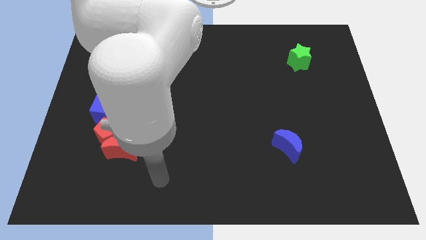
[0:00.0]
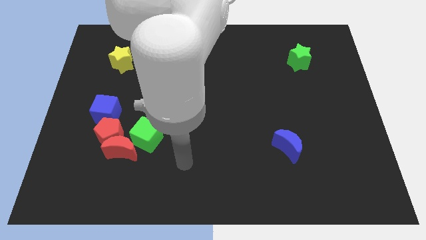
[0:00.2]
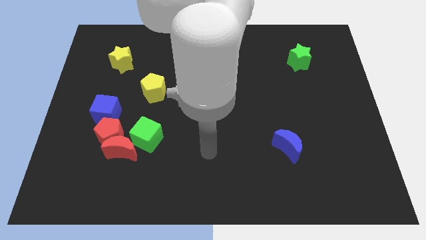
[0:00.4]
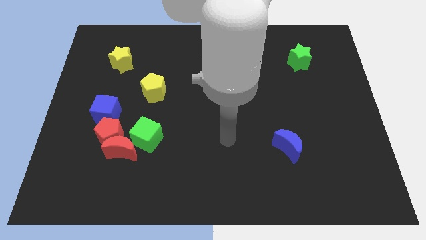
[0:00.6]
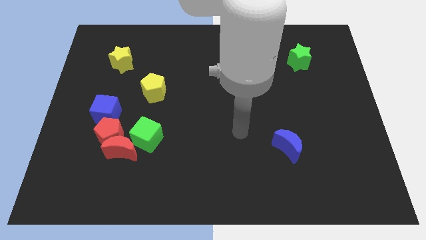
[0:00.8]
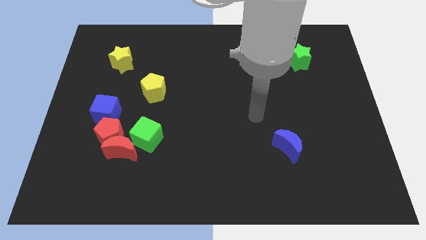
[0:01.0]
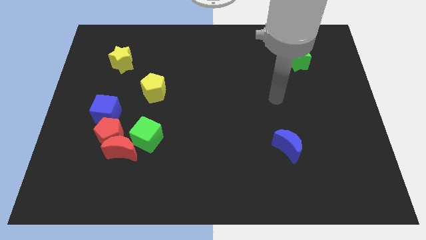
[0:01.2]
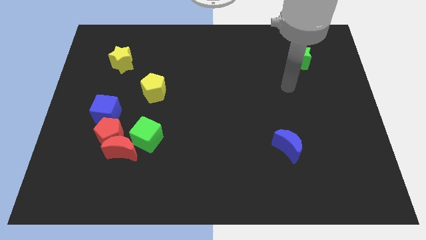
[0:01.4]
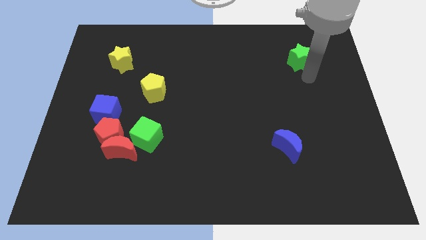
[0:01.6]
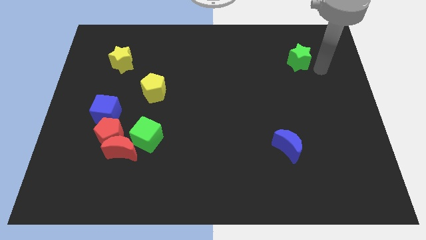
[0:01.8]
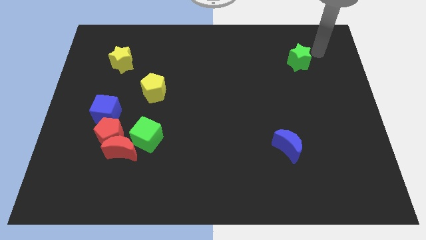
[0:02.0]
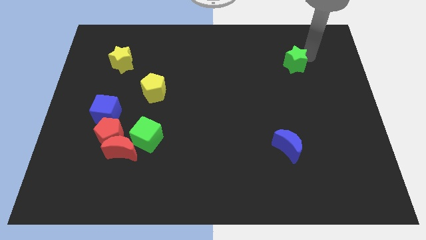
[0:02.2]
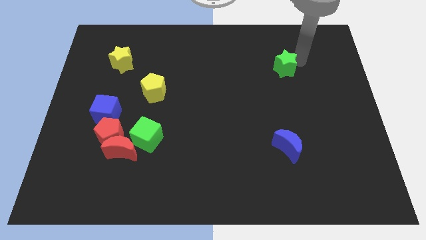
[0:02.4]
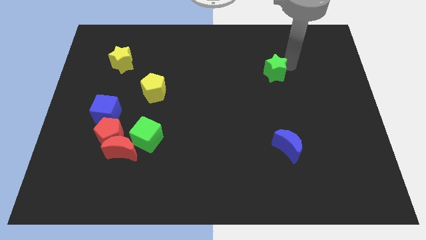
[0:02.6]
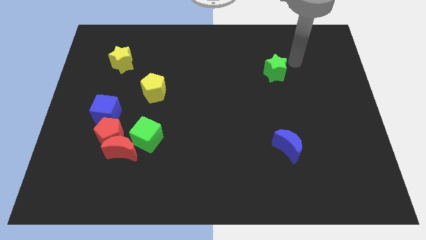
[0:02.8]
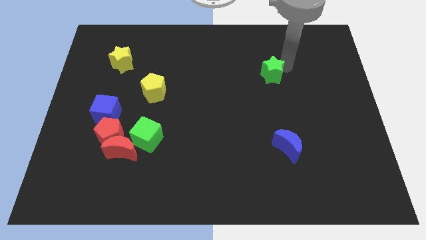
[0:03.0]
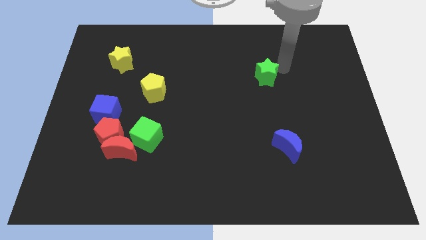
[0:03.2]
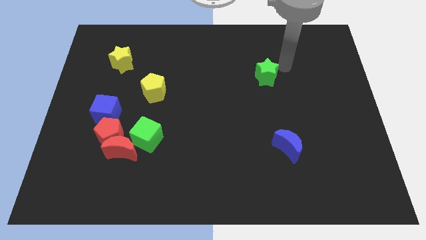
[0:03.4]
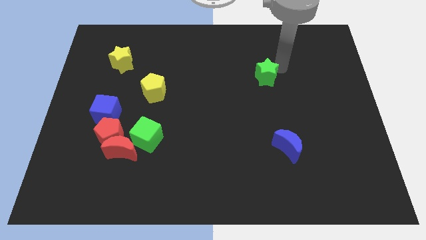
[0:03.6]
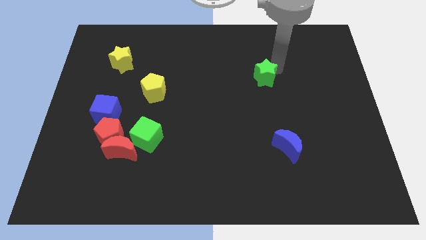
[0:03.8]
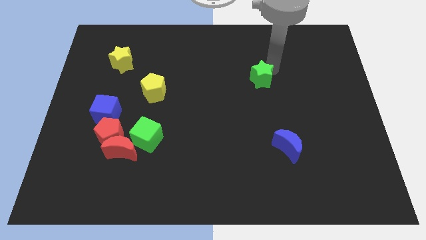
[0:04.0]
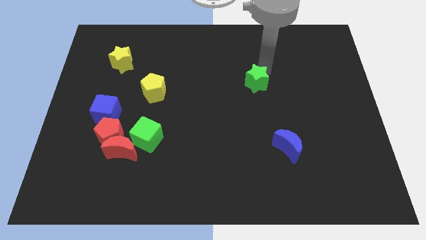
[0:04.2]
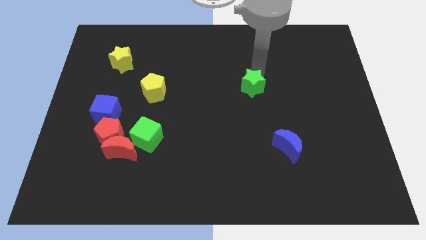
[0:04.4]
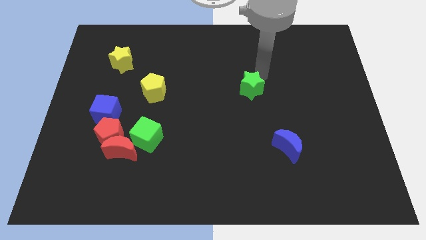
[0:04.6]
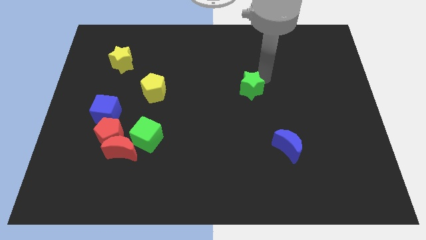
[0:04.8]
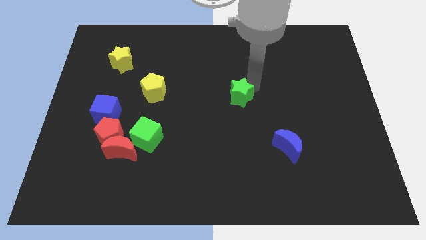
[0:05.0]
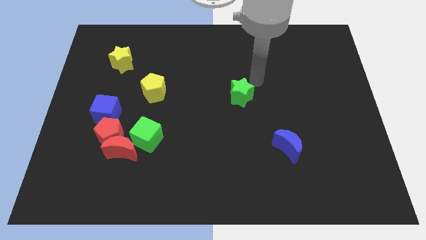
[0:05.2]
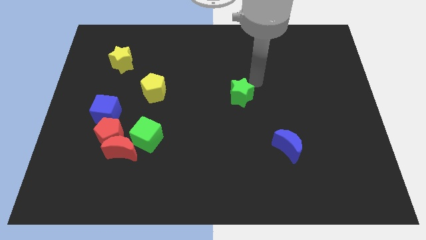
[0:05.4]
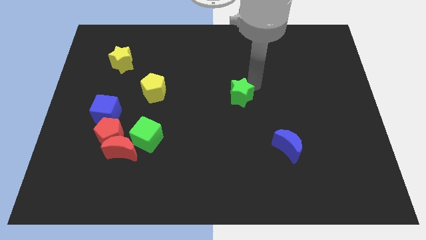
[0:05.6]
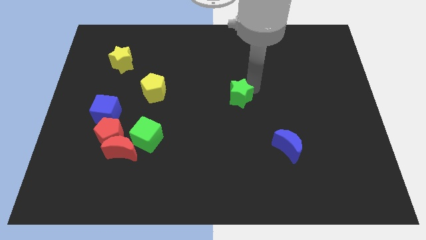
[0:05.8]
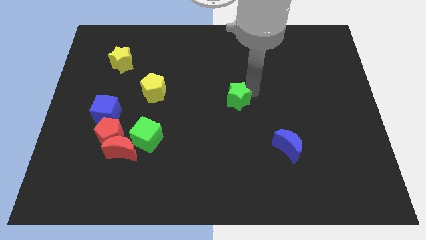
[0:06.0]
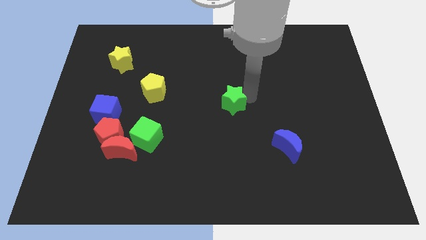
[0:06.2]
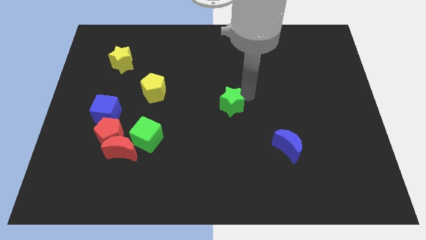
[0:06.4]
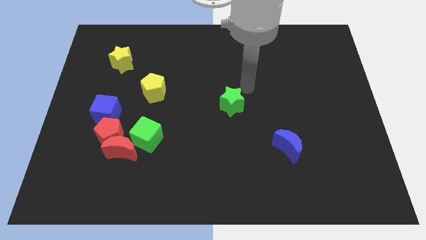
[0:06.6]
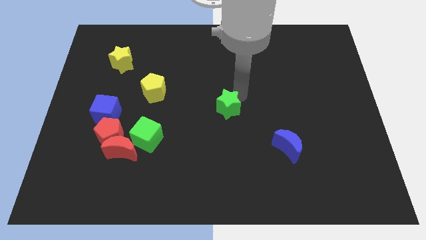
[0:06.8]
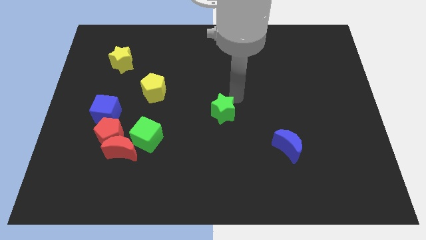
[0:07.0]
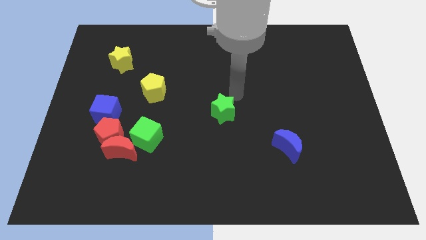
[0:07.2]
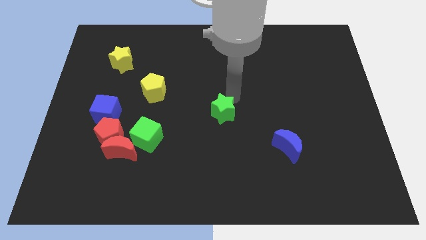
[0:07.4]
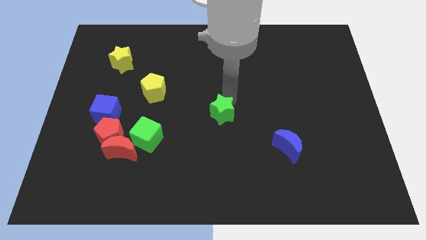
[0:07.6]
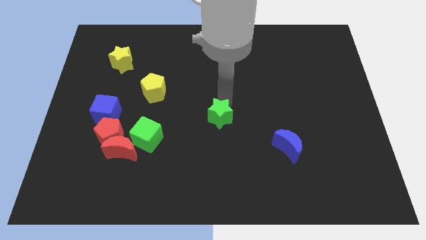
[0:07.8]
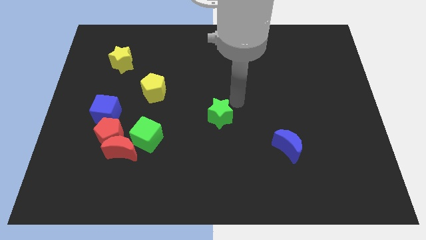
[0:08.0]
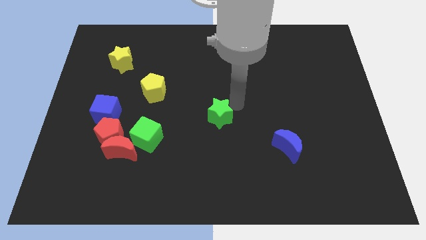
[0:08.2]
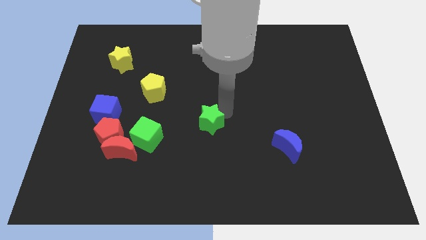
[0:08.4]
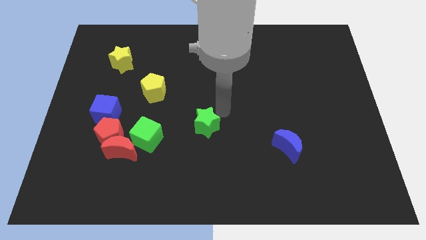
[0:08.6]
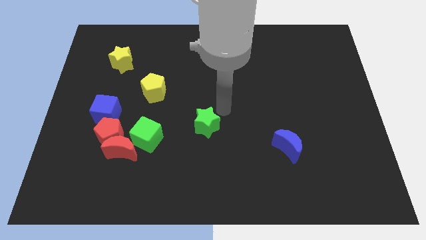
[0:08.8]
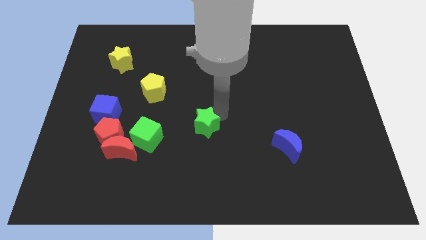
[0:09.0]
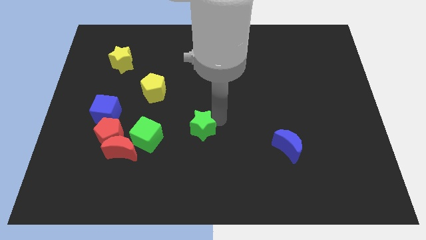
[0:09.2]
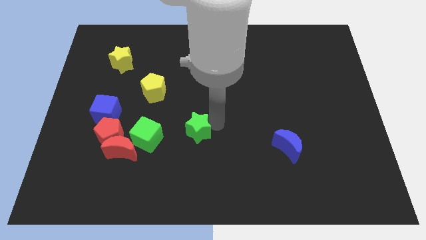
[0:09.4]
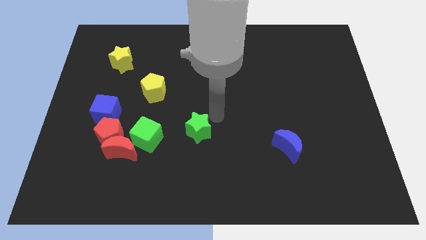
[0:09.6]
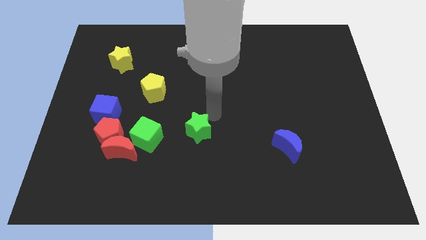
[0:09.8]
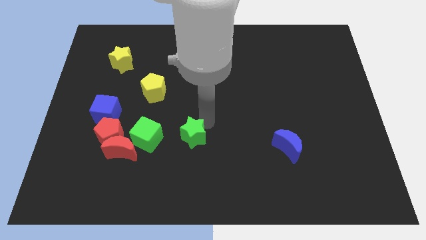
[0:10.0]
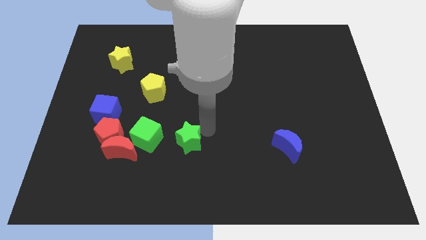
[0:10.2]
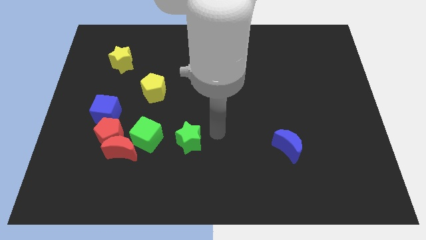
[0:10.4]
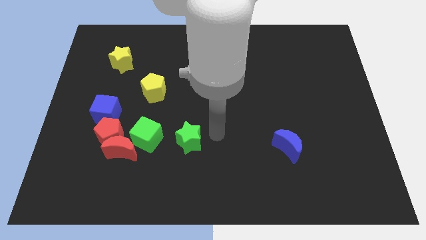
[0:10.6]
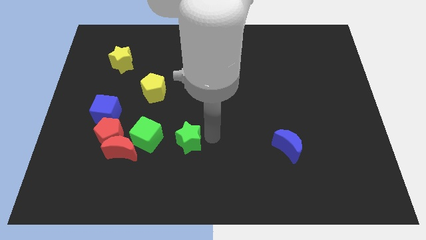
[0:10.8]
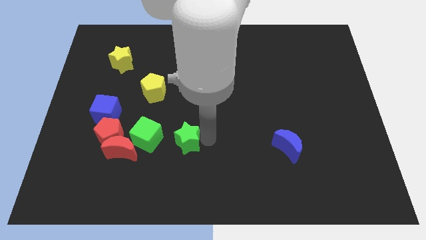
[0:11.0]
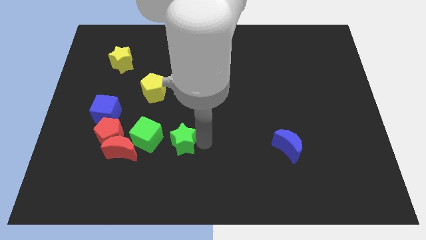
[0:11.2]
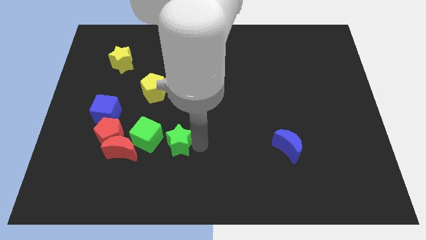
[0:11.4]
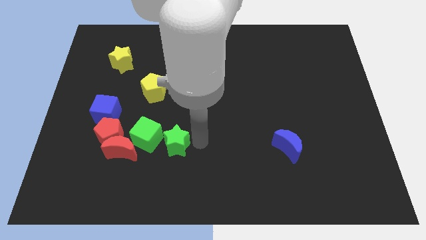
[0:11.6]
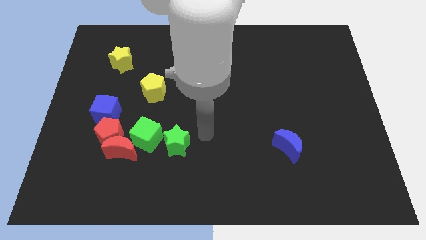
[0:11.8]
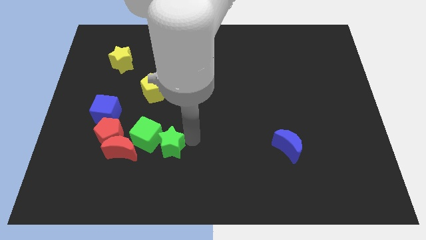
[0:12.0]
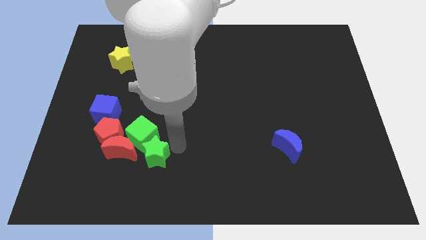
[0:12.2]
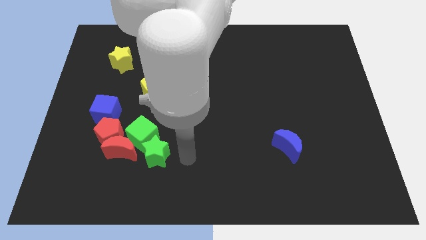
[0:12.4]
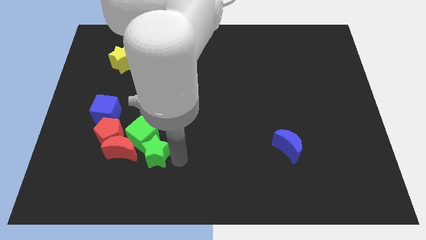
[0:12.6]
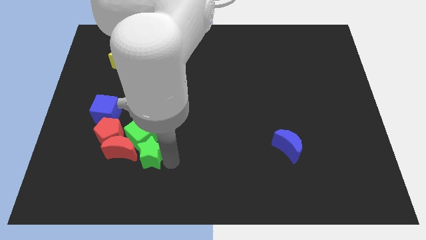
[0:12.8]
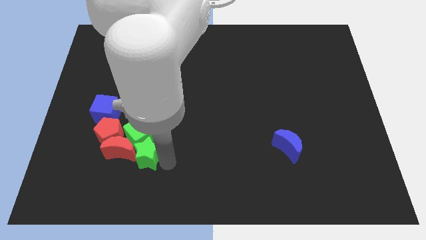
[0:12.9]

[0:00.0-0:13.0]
move the green star next to the red moon

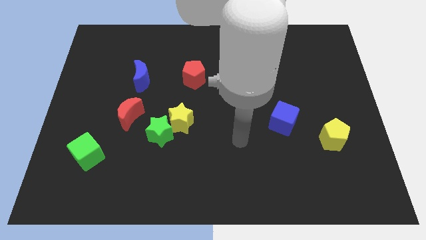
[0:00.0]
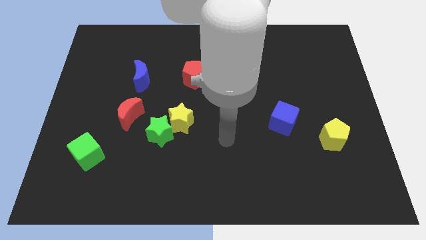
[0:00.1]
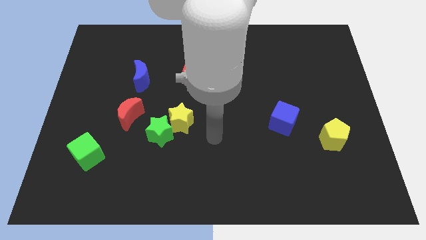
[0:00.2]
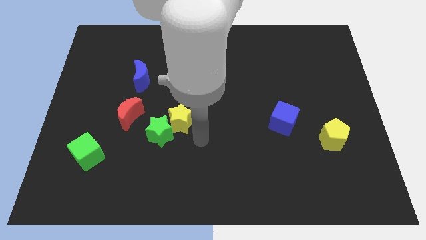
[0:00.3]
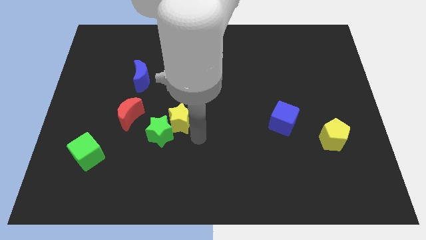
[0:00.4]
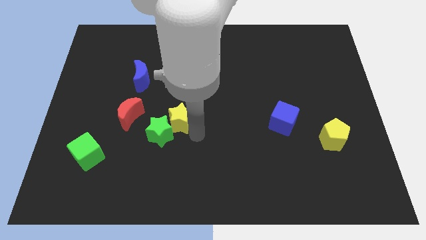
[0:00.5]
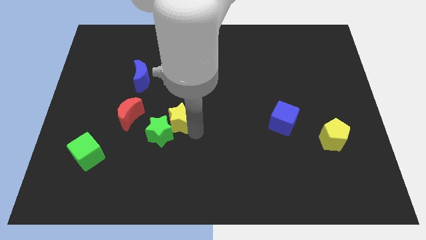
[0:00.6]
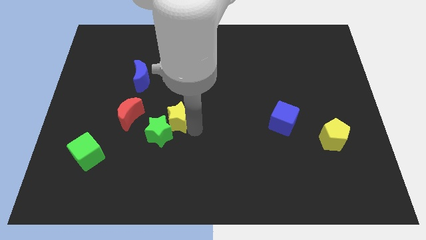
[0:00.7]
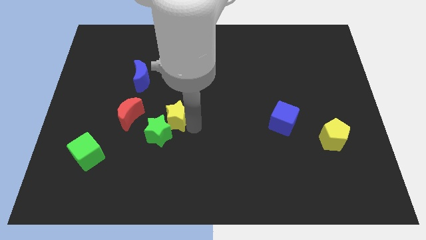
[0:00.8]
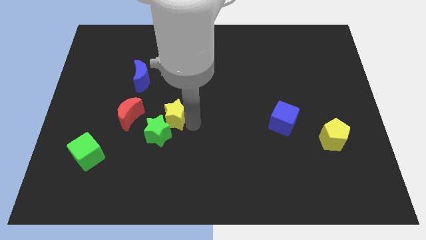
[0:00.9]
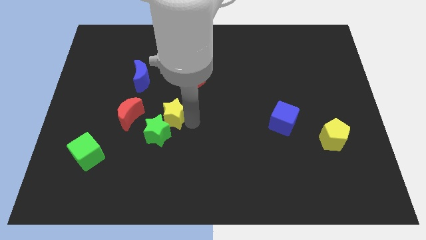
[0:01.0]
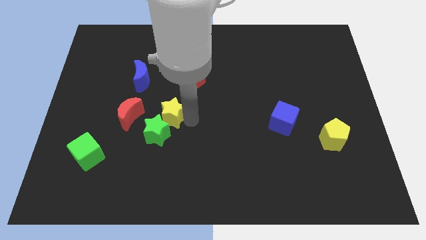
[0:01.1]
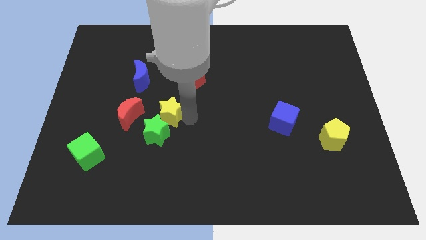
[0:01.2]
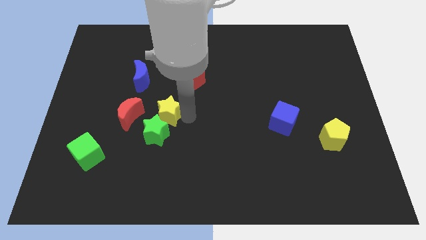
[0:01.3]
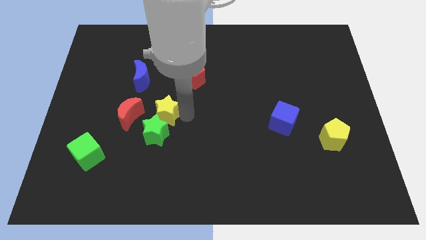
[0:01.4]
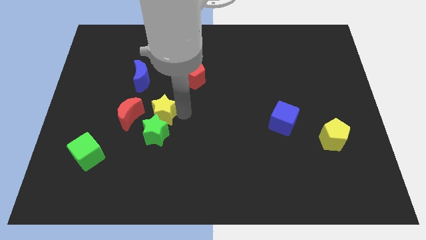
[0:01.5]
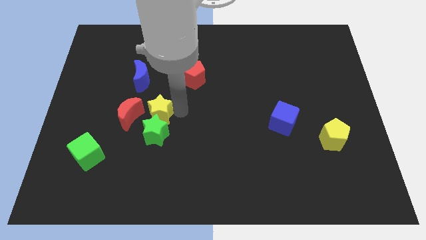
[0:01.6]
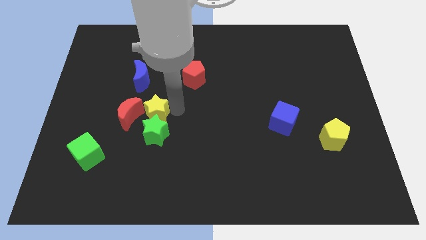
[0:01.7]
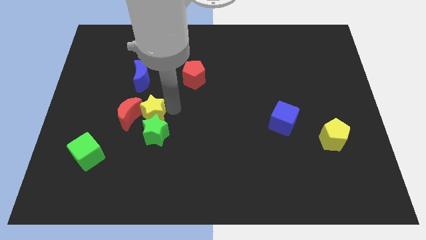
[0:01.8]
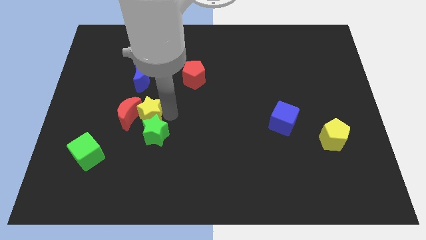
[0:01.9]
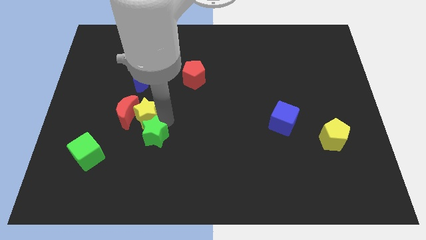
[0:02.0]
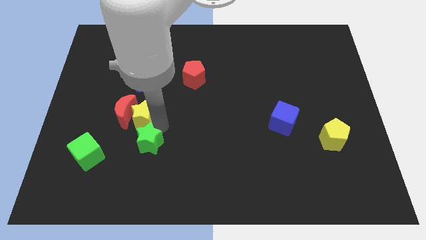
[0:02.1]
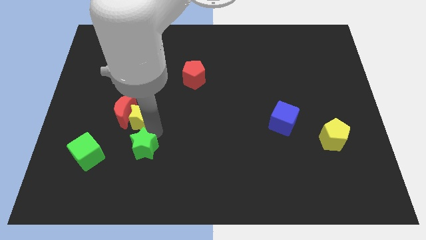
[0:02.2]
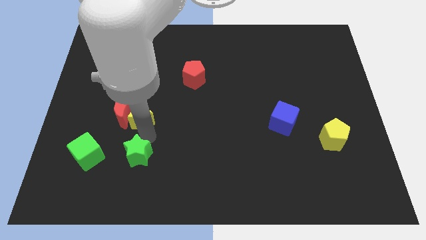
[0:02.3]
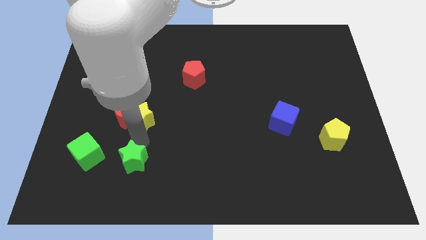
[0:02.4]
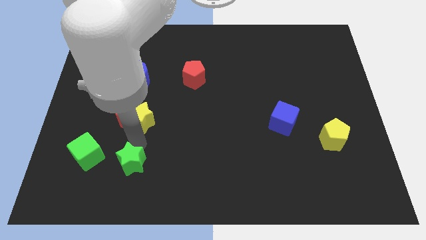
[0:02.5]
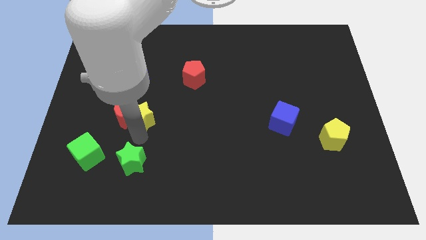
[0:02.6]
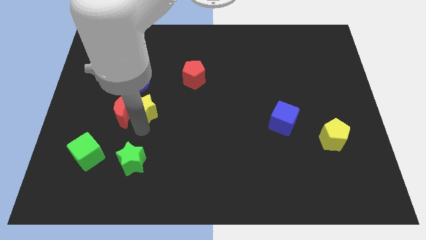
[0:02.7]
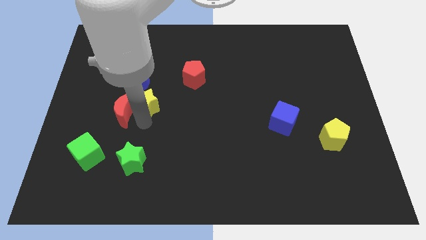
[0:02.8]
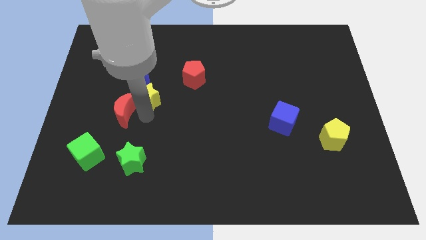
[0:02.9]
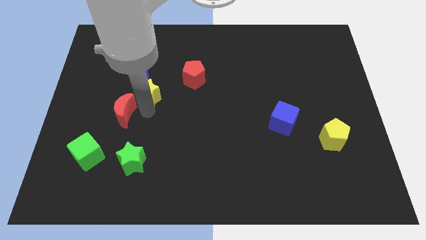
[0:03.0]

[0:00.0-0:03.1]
slide the yellow star next to the blue moon
